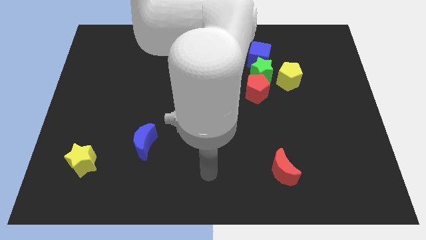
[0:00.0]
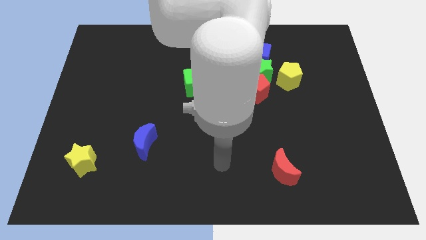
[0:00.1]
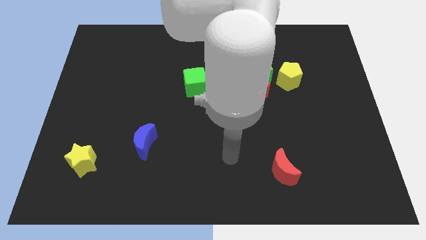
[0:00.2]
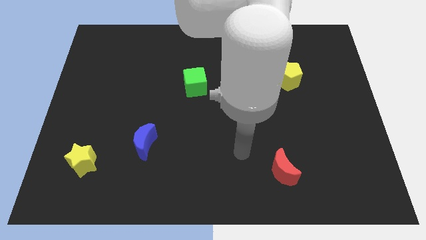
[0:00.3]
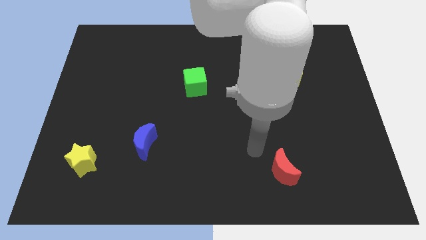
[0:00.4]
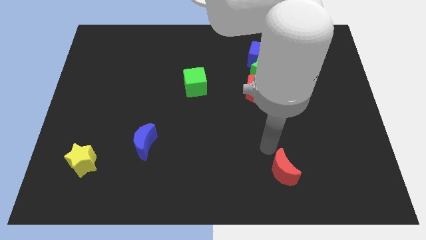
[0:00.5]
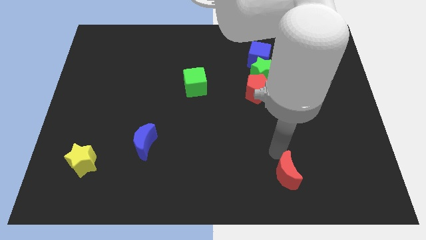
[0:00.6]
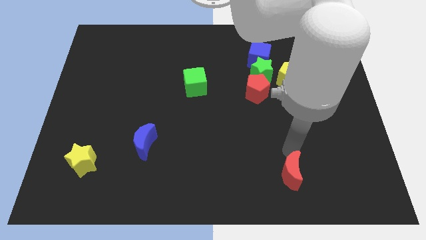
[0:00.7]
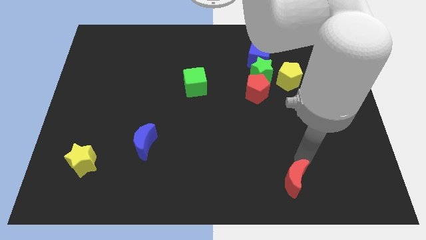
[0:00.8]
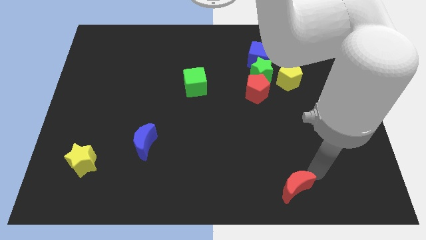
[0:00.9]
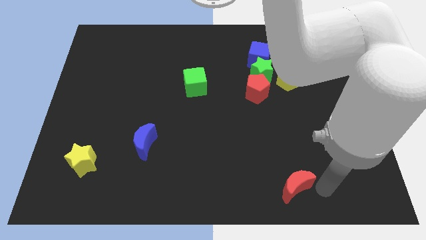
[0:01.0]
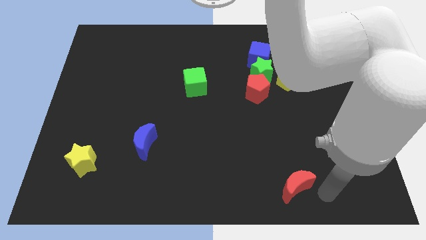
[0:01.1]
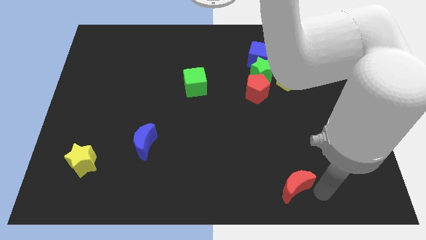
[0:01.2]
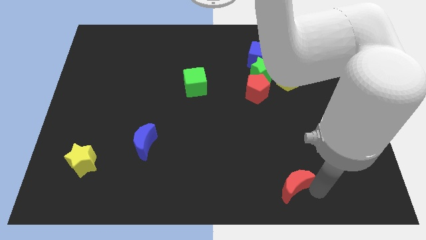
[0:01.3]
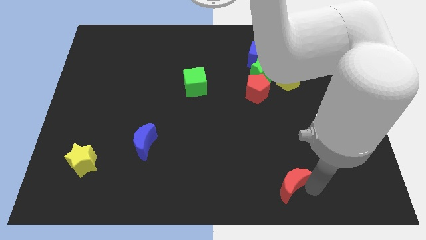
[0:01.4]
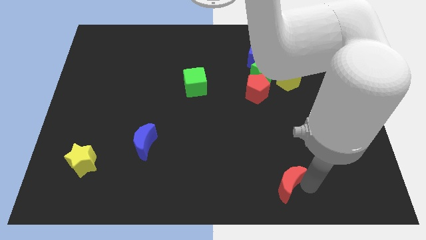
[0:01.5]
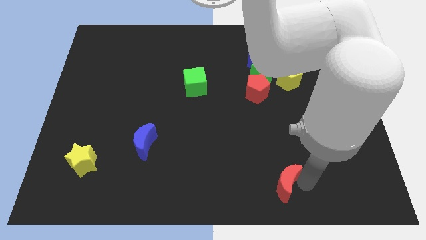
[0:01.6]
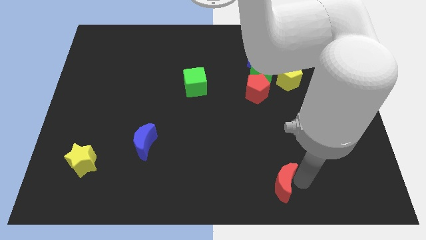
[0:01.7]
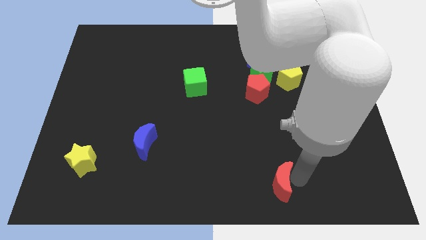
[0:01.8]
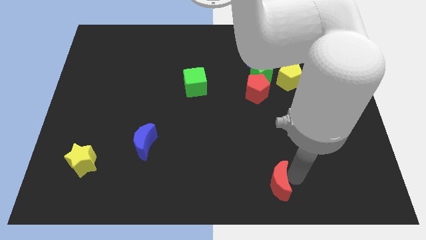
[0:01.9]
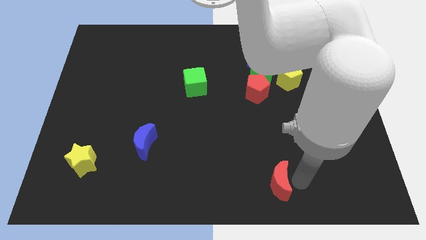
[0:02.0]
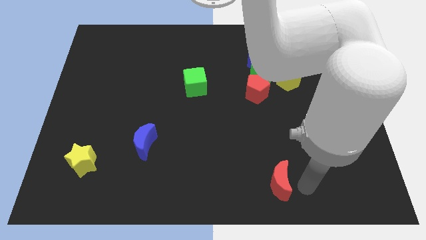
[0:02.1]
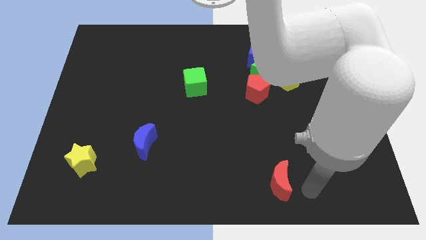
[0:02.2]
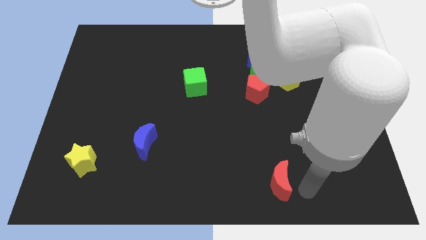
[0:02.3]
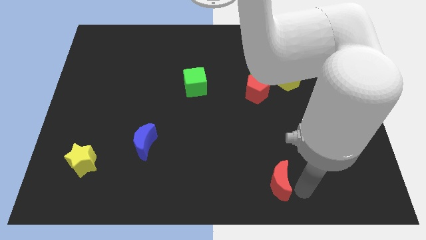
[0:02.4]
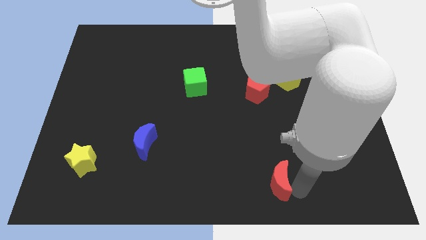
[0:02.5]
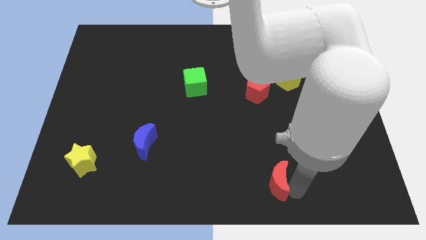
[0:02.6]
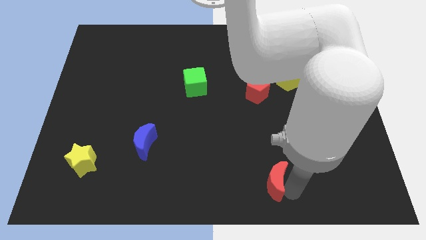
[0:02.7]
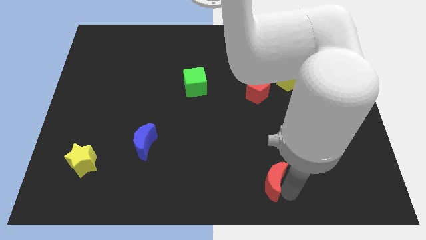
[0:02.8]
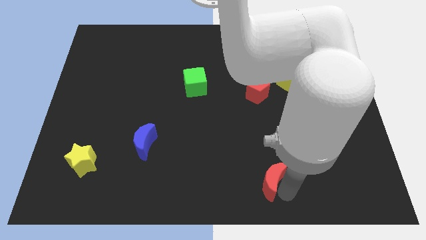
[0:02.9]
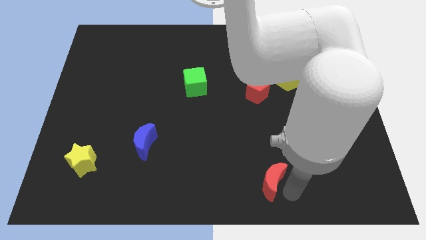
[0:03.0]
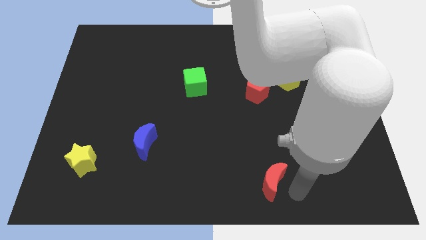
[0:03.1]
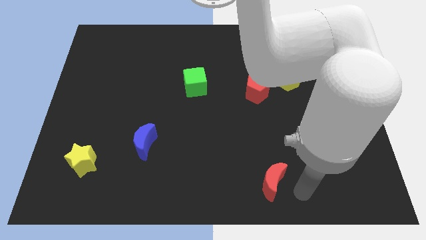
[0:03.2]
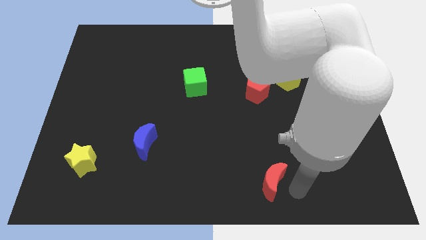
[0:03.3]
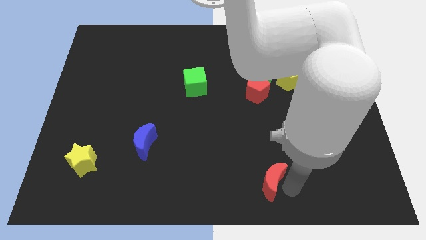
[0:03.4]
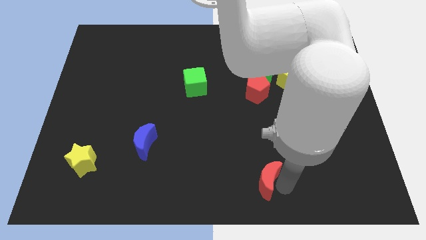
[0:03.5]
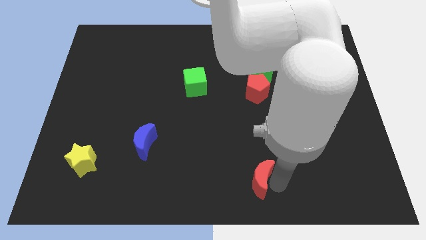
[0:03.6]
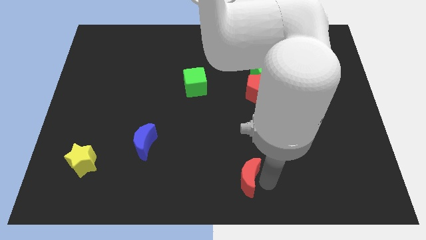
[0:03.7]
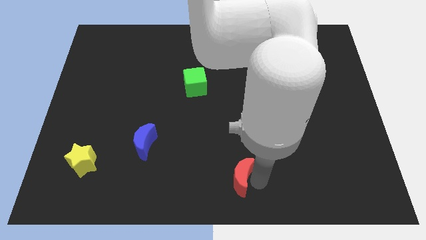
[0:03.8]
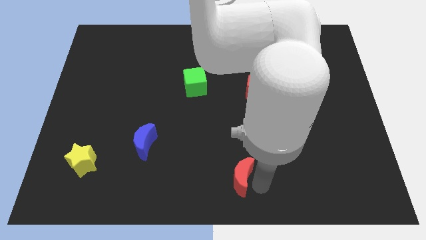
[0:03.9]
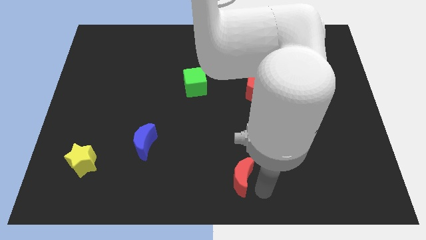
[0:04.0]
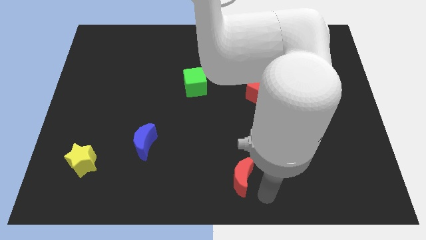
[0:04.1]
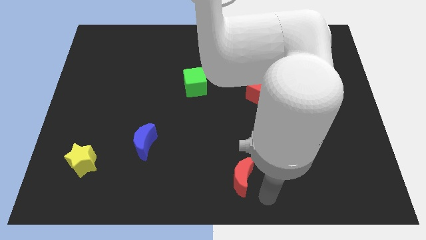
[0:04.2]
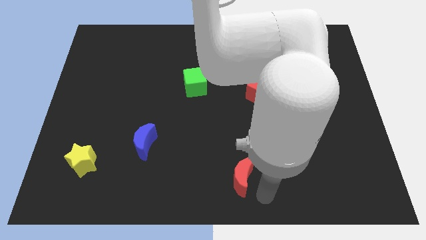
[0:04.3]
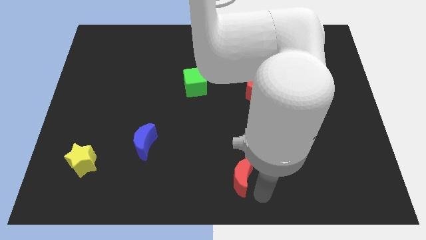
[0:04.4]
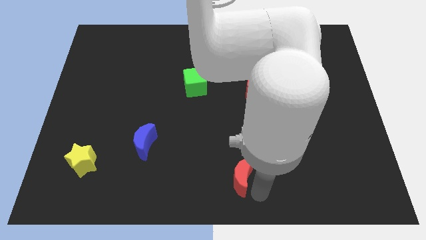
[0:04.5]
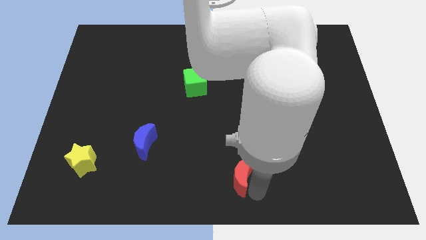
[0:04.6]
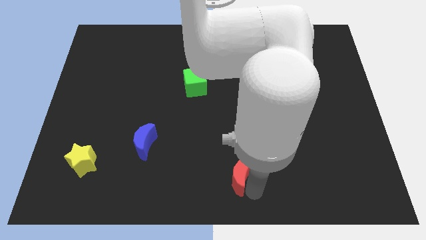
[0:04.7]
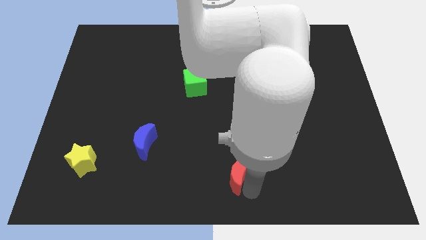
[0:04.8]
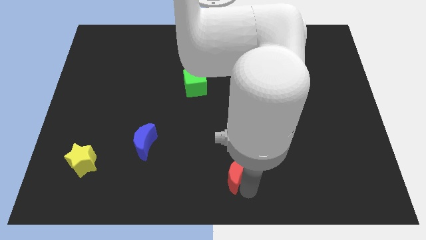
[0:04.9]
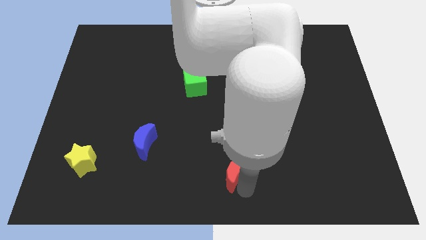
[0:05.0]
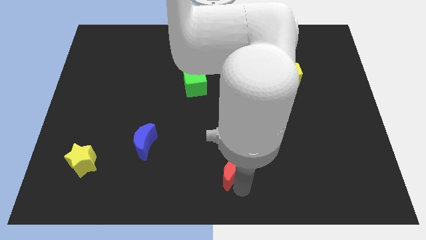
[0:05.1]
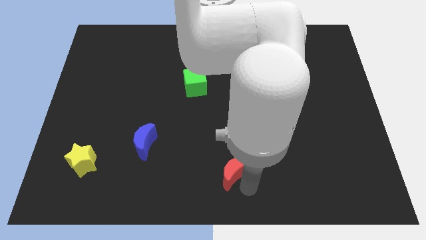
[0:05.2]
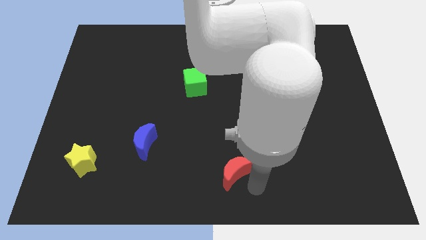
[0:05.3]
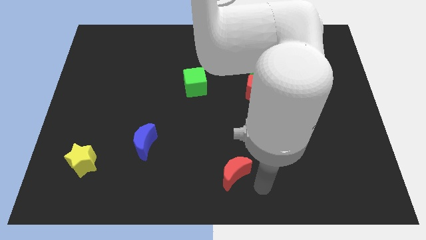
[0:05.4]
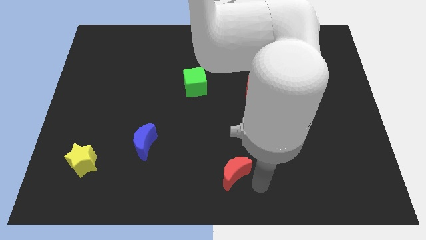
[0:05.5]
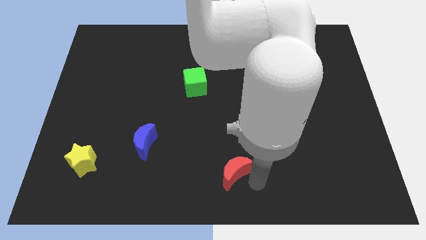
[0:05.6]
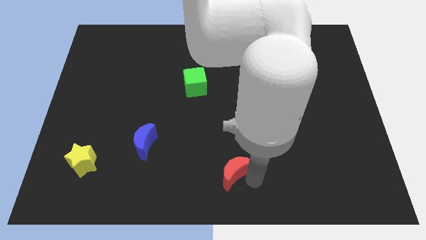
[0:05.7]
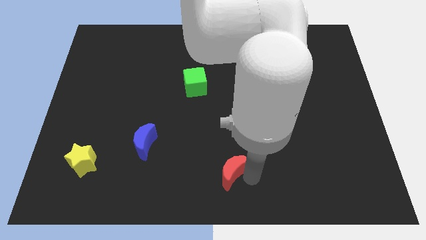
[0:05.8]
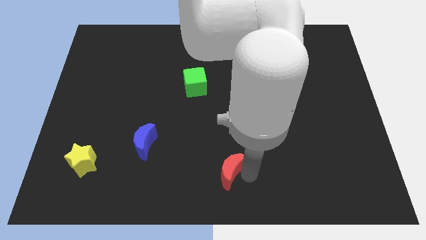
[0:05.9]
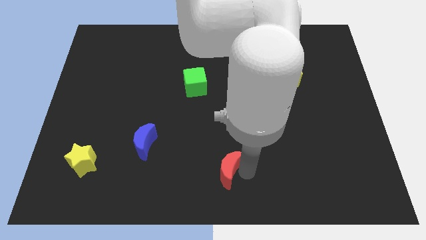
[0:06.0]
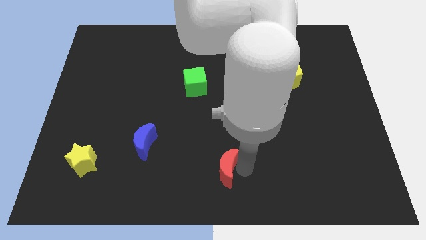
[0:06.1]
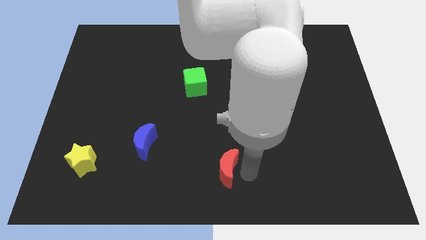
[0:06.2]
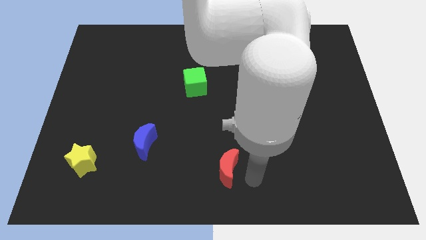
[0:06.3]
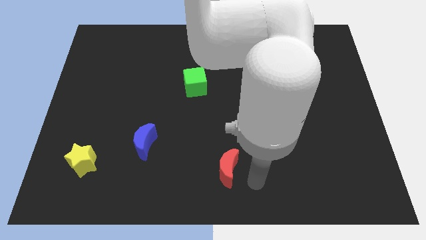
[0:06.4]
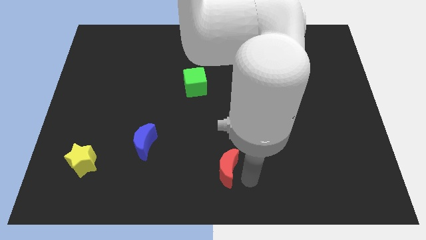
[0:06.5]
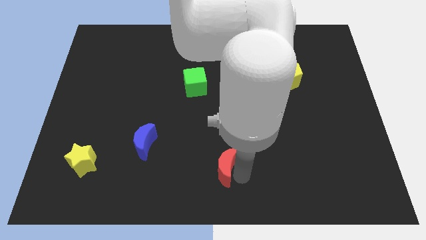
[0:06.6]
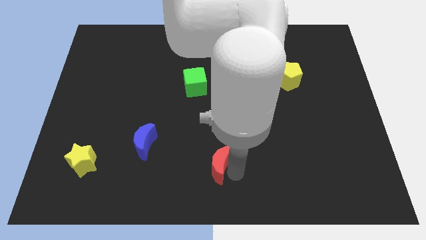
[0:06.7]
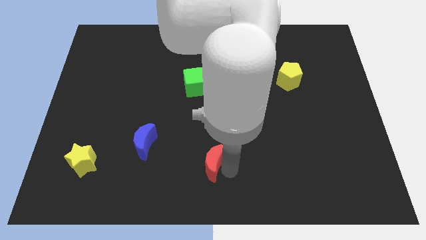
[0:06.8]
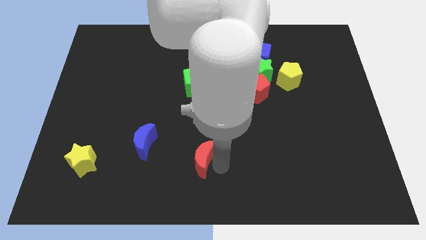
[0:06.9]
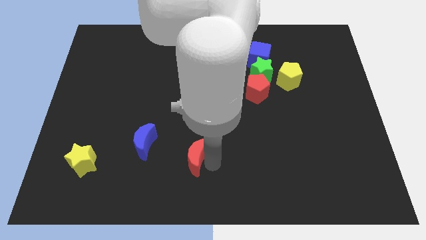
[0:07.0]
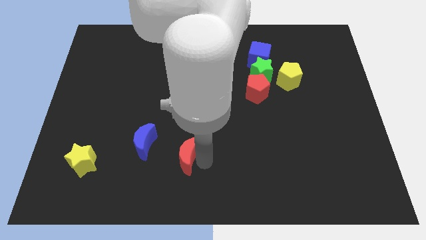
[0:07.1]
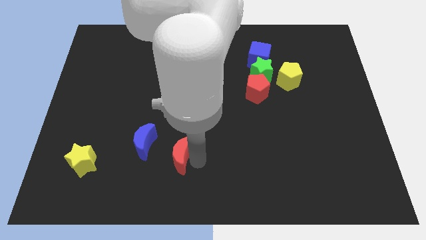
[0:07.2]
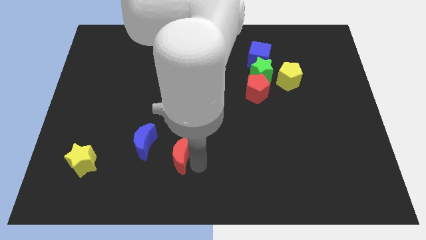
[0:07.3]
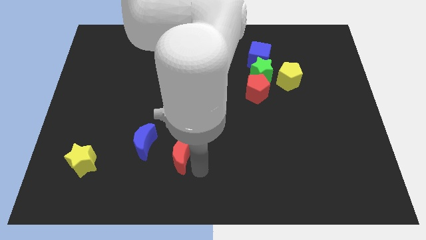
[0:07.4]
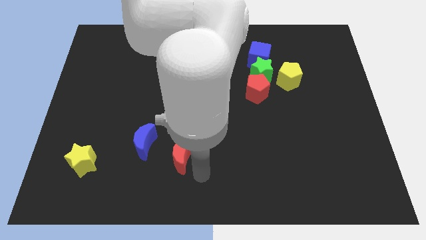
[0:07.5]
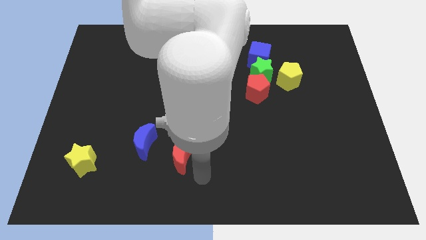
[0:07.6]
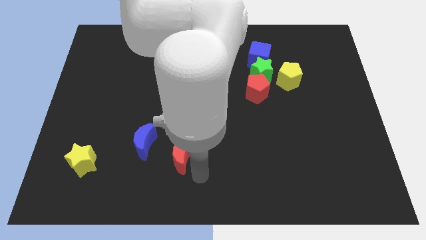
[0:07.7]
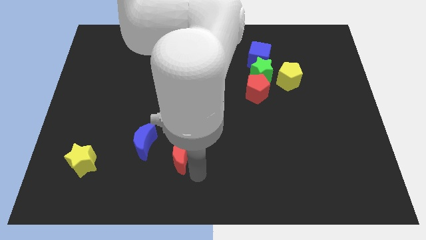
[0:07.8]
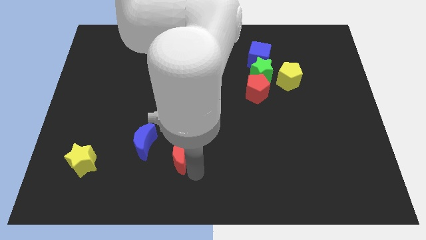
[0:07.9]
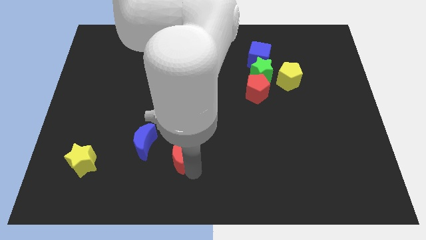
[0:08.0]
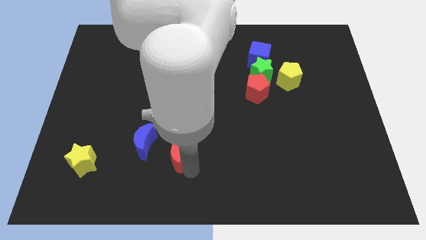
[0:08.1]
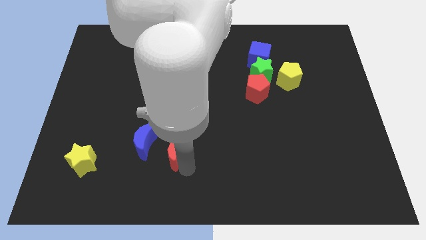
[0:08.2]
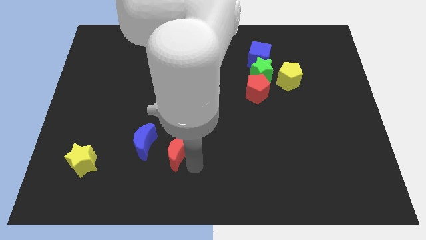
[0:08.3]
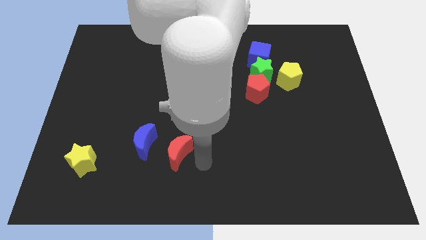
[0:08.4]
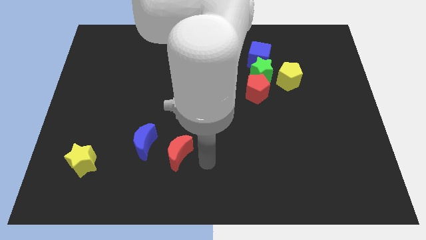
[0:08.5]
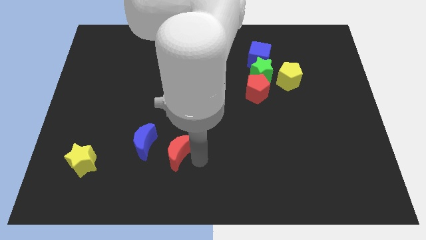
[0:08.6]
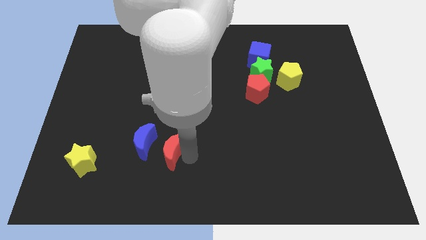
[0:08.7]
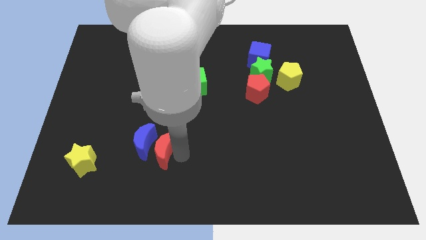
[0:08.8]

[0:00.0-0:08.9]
slide the red moon close to the blue moon
